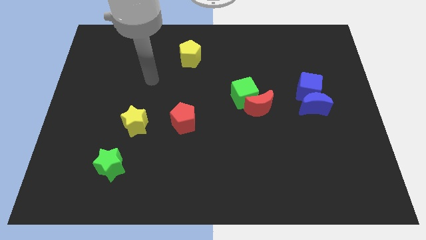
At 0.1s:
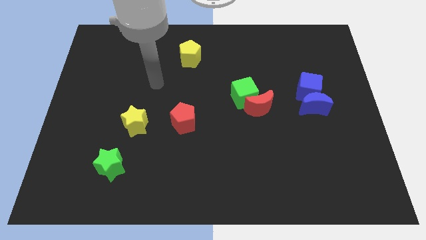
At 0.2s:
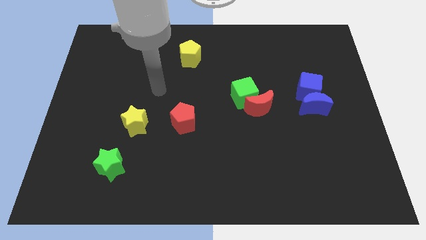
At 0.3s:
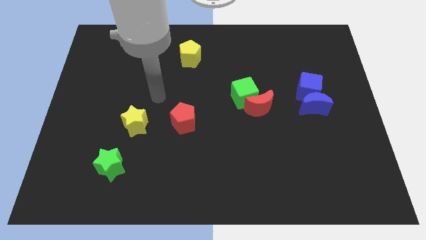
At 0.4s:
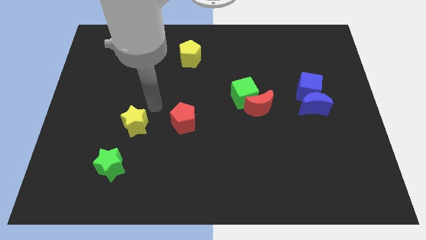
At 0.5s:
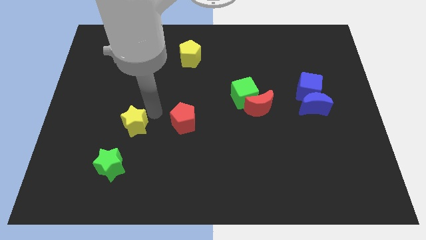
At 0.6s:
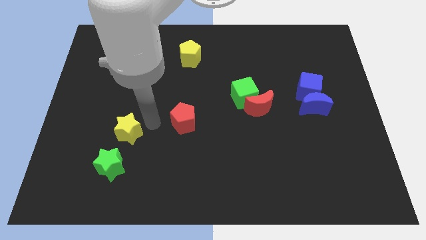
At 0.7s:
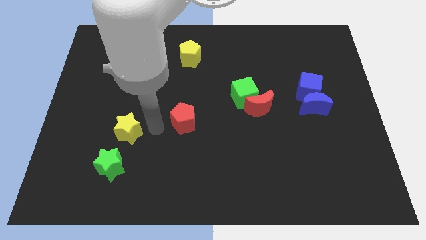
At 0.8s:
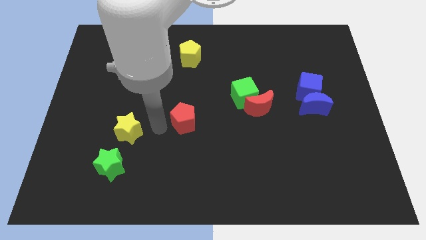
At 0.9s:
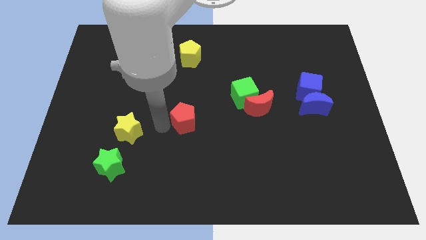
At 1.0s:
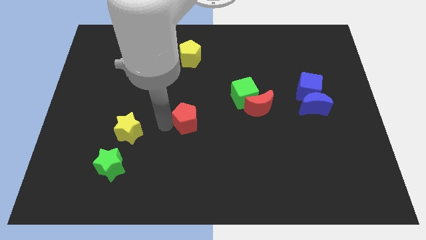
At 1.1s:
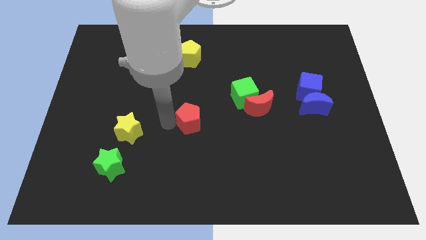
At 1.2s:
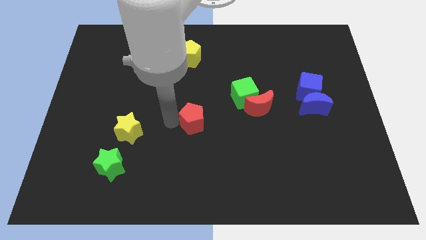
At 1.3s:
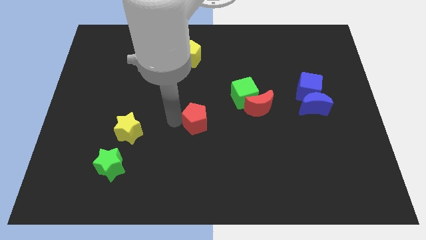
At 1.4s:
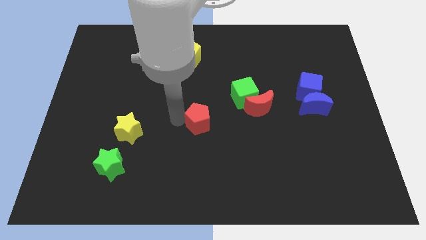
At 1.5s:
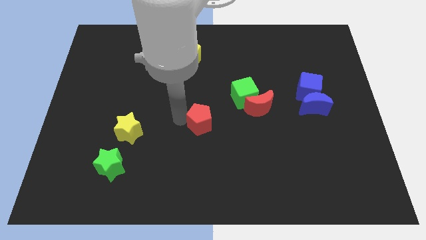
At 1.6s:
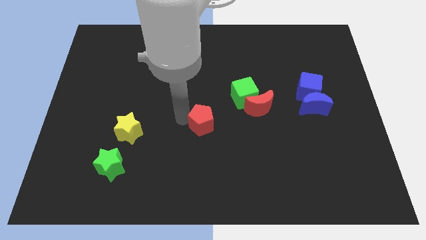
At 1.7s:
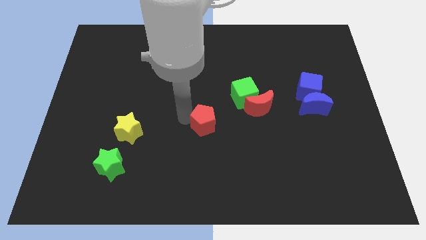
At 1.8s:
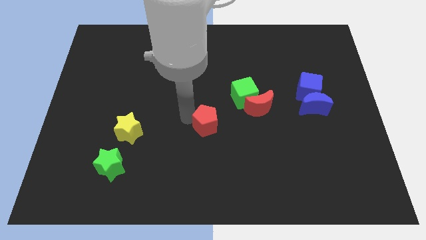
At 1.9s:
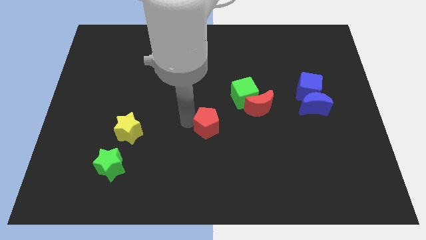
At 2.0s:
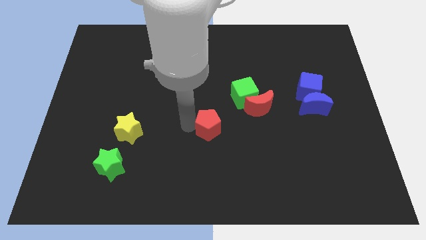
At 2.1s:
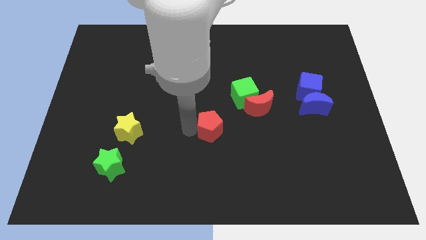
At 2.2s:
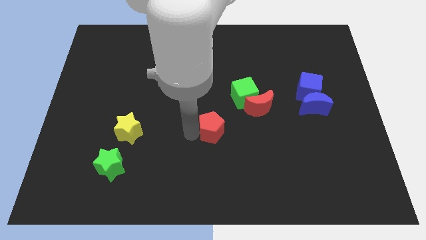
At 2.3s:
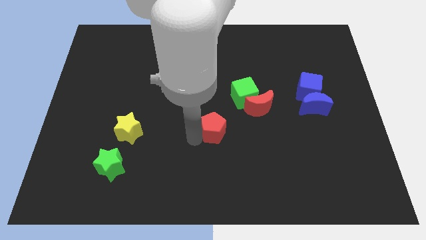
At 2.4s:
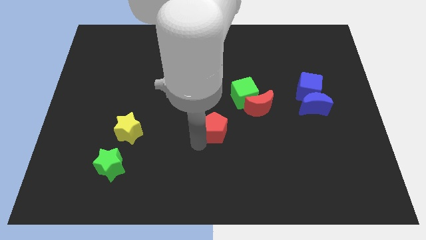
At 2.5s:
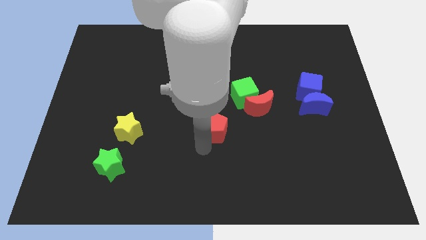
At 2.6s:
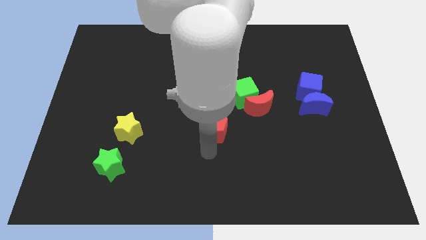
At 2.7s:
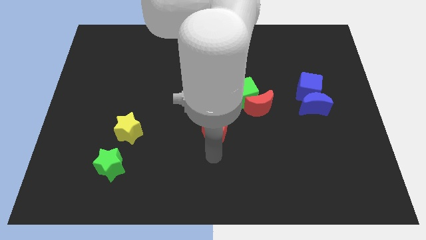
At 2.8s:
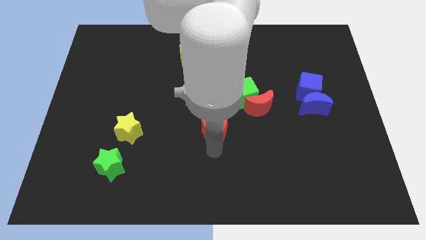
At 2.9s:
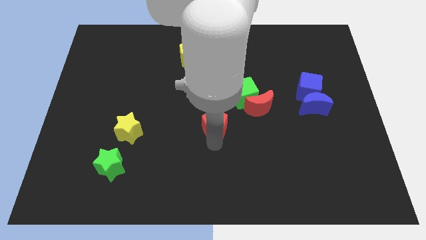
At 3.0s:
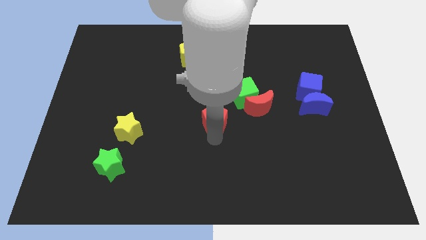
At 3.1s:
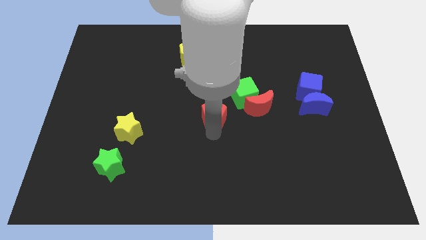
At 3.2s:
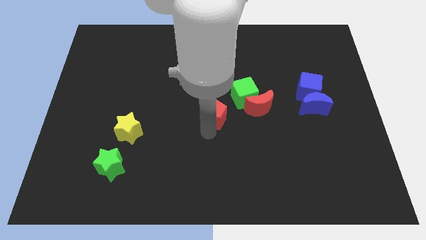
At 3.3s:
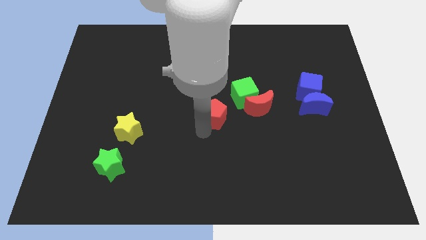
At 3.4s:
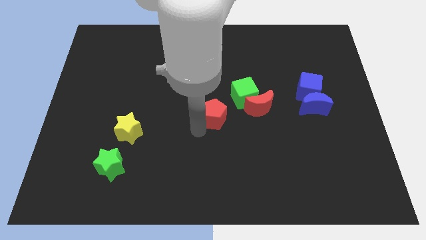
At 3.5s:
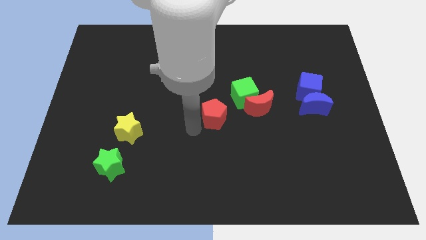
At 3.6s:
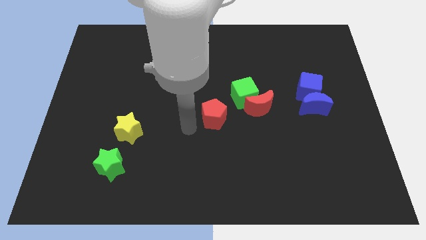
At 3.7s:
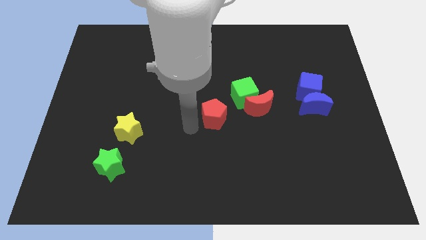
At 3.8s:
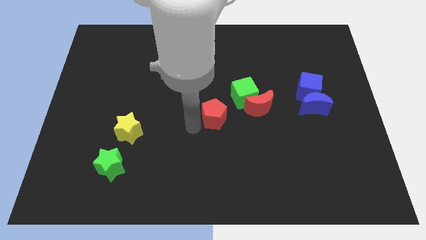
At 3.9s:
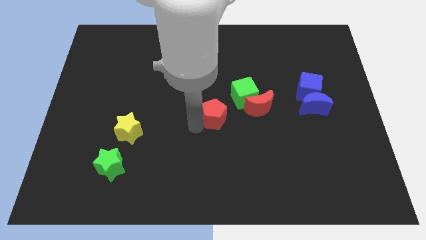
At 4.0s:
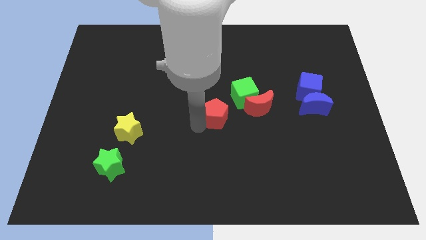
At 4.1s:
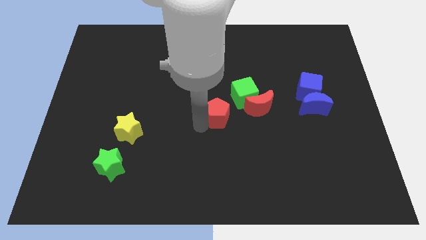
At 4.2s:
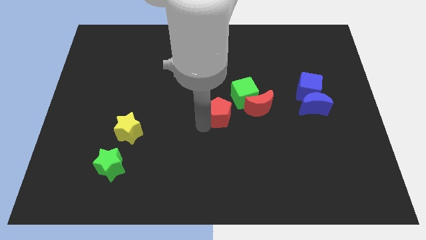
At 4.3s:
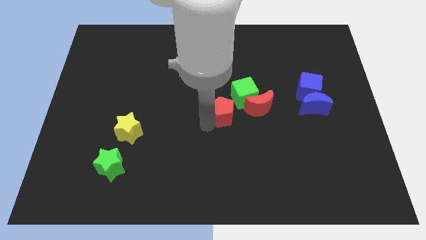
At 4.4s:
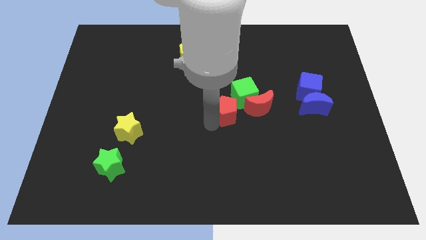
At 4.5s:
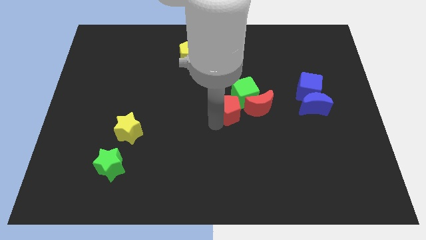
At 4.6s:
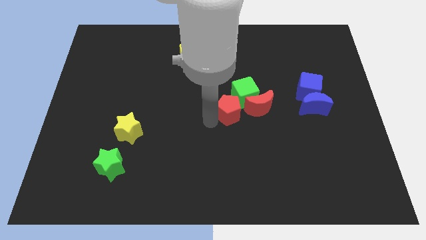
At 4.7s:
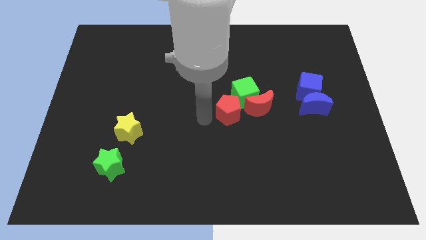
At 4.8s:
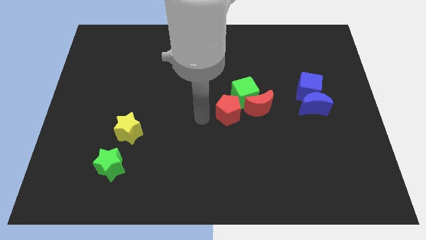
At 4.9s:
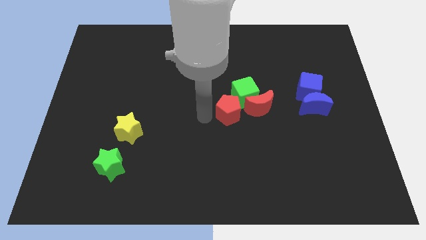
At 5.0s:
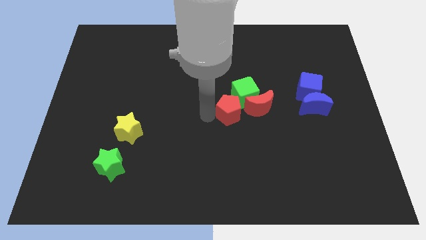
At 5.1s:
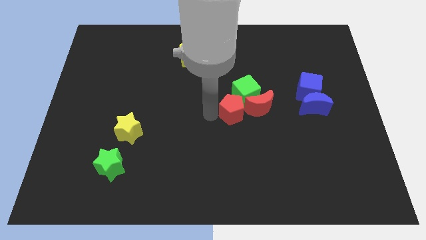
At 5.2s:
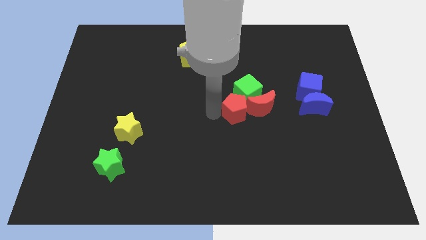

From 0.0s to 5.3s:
slide the red pentagon to the red moon

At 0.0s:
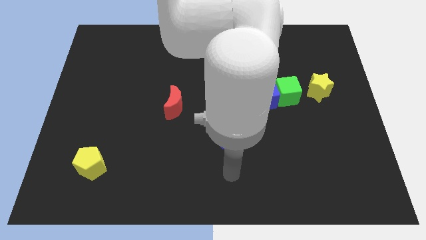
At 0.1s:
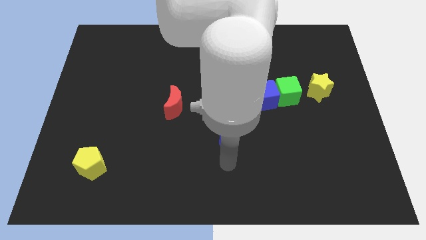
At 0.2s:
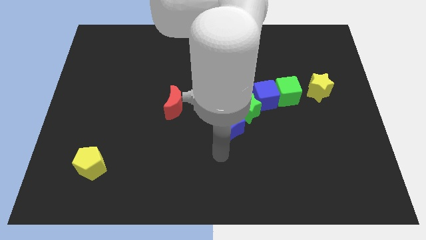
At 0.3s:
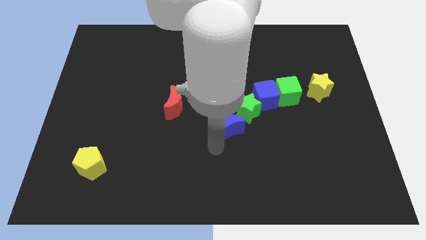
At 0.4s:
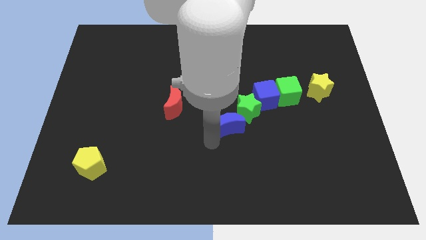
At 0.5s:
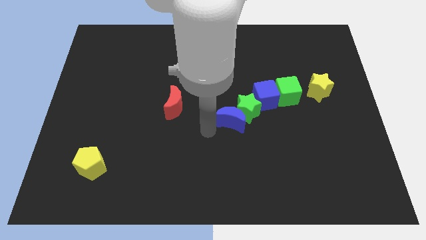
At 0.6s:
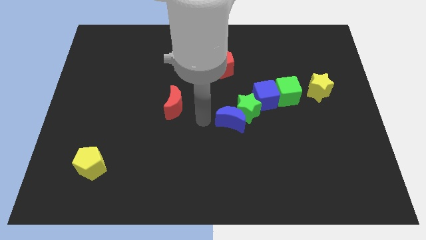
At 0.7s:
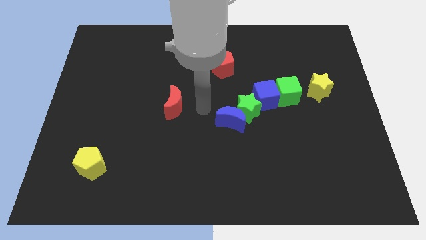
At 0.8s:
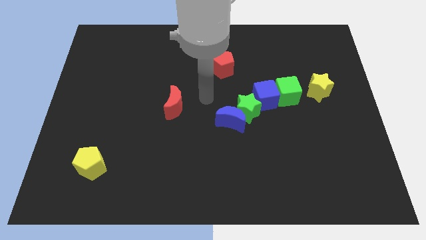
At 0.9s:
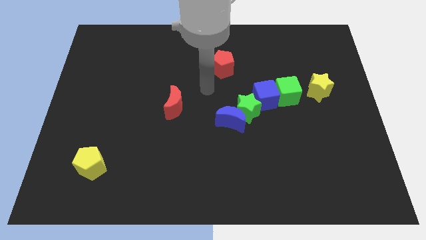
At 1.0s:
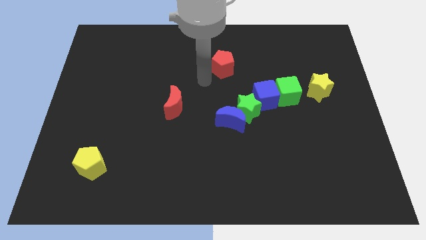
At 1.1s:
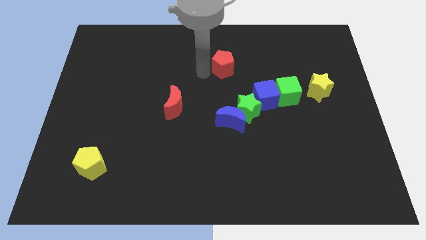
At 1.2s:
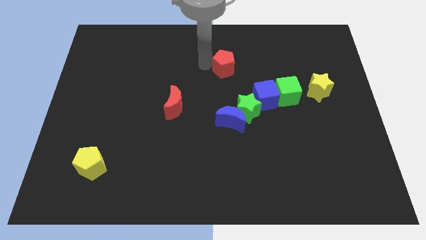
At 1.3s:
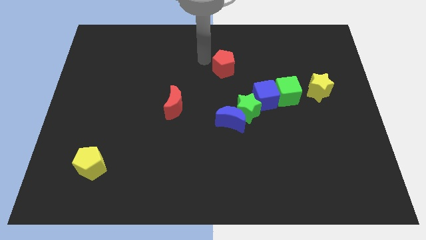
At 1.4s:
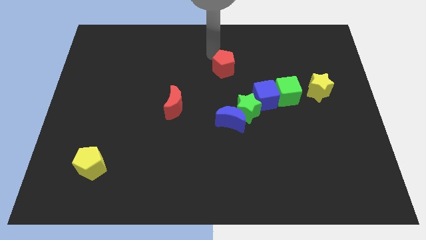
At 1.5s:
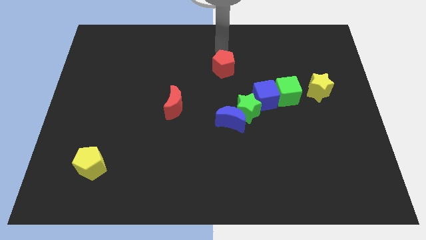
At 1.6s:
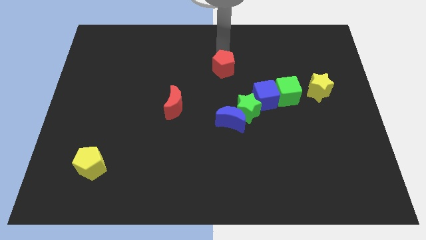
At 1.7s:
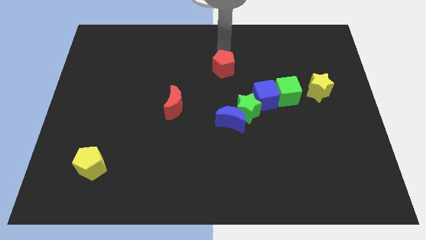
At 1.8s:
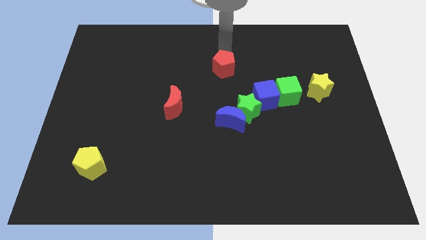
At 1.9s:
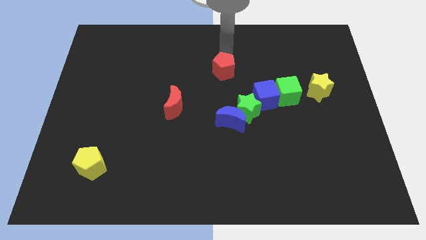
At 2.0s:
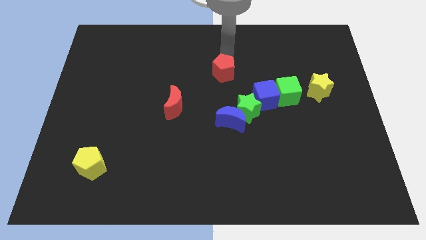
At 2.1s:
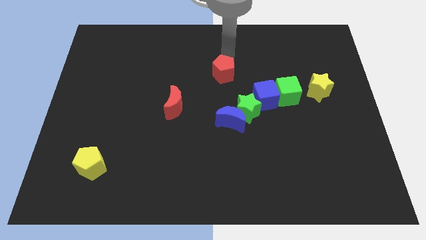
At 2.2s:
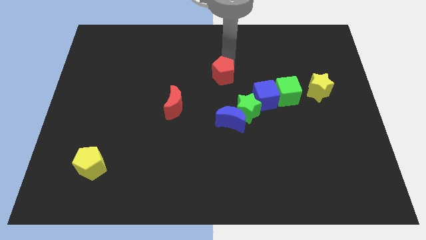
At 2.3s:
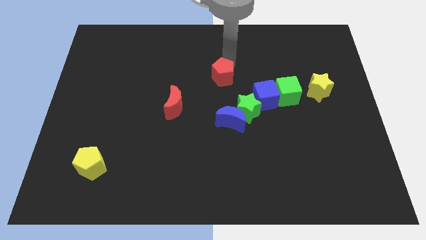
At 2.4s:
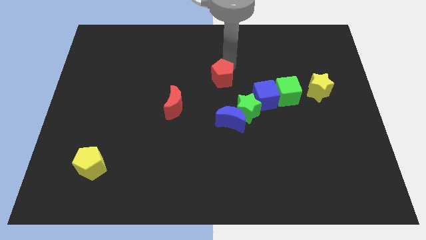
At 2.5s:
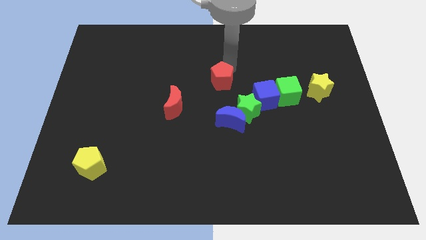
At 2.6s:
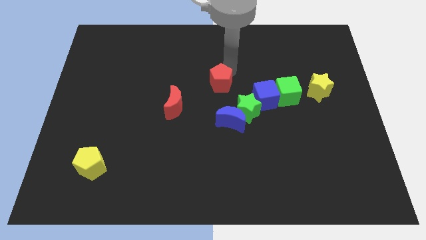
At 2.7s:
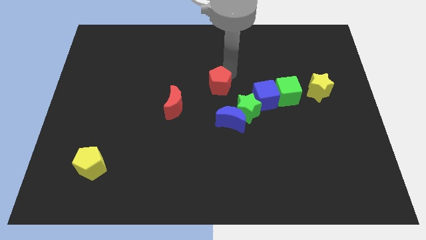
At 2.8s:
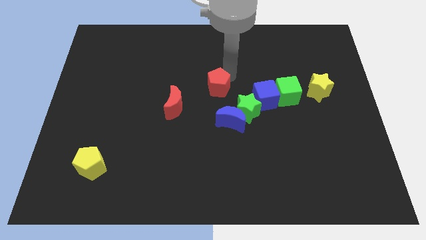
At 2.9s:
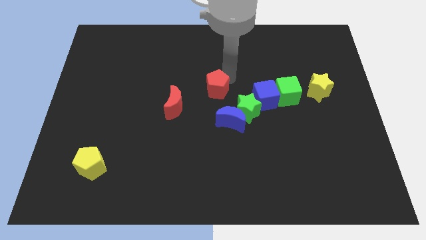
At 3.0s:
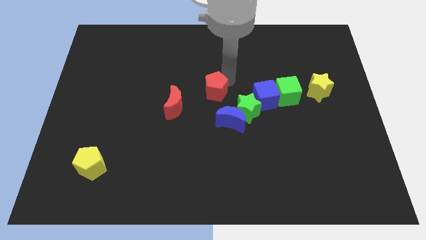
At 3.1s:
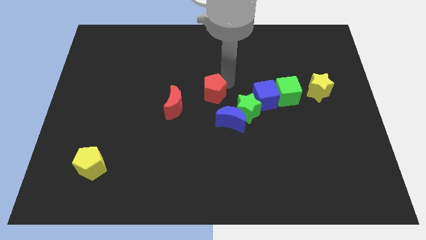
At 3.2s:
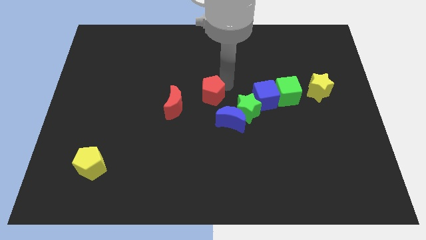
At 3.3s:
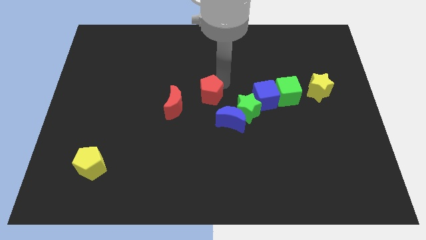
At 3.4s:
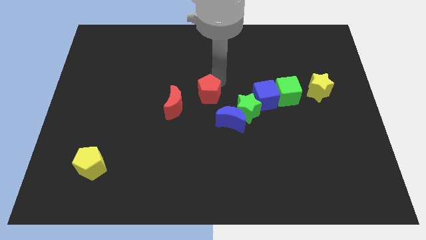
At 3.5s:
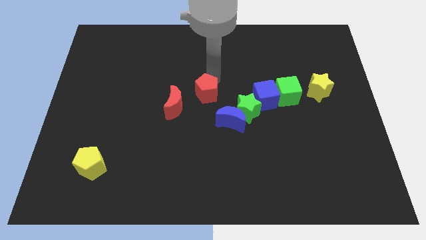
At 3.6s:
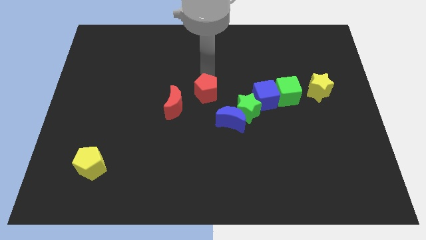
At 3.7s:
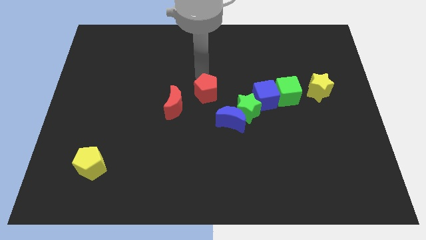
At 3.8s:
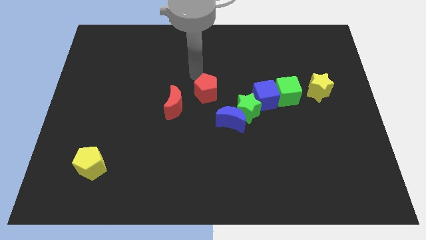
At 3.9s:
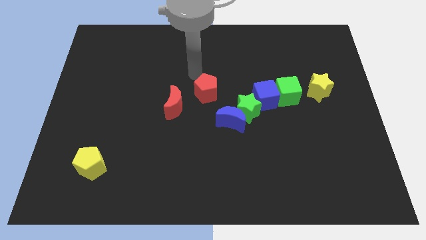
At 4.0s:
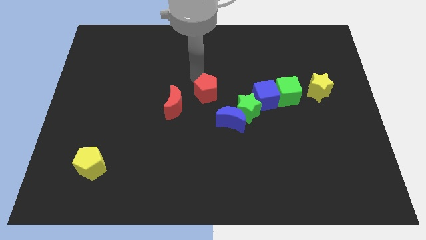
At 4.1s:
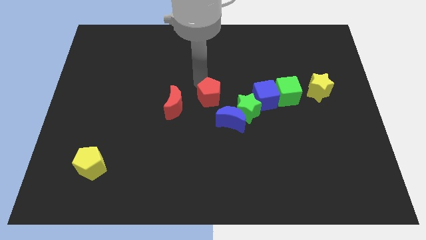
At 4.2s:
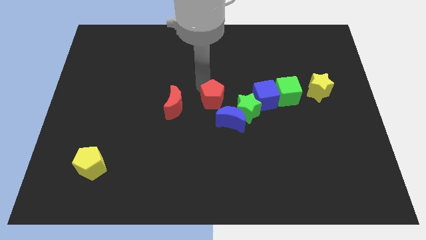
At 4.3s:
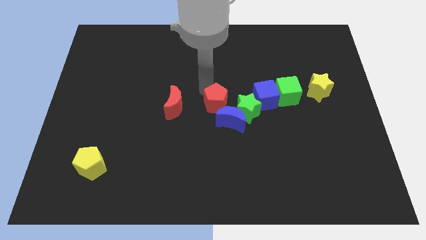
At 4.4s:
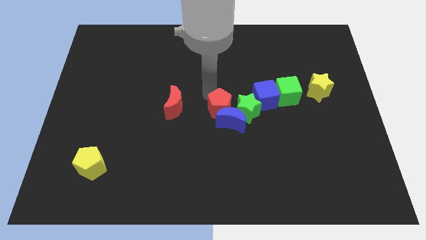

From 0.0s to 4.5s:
push the red pentagon next to the blue moon
